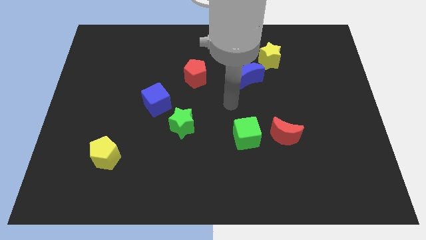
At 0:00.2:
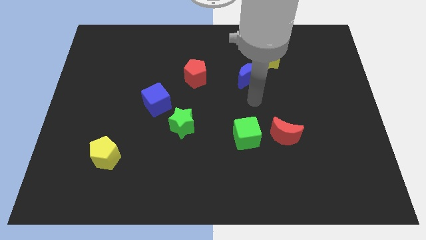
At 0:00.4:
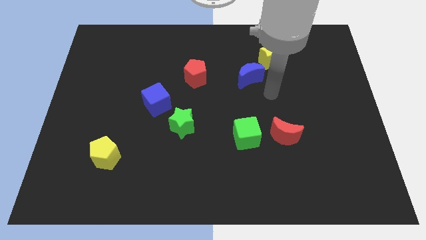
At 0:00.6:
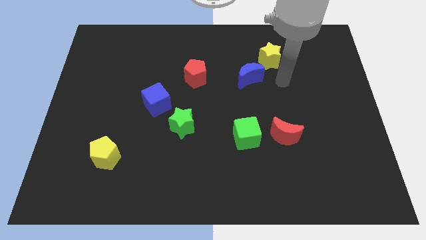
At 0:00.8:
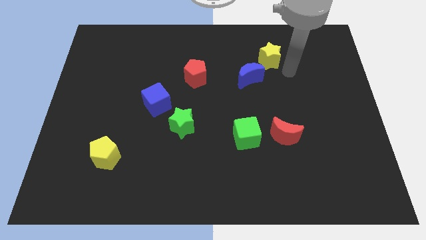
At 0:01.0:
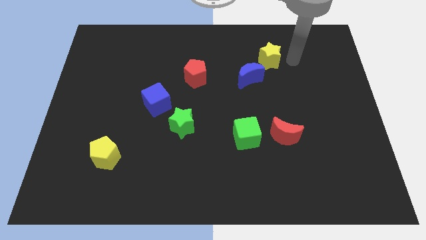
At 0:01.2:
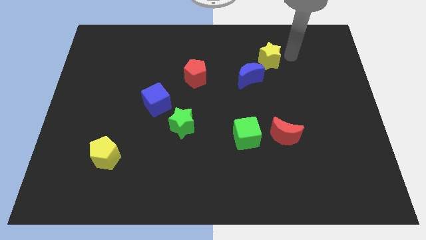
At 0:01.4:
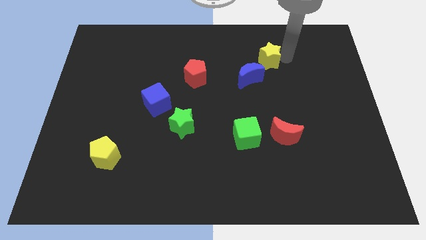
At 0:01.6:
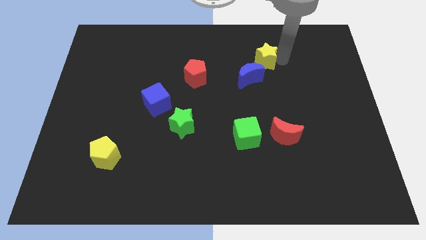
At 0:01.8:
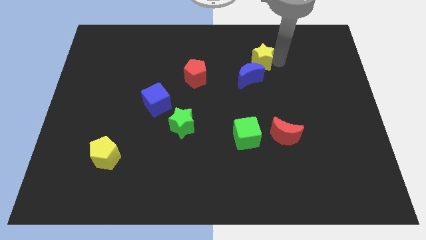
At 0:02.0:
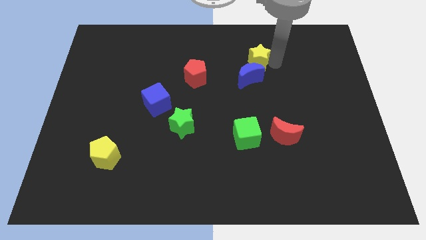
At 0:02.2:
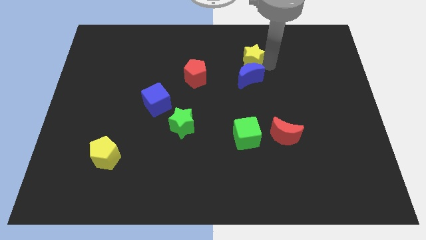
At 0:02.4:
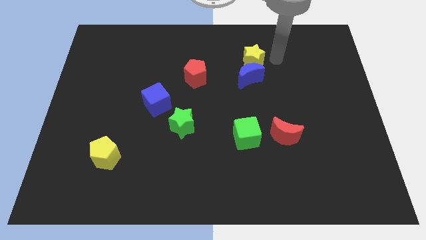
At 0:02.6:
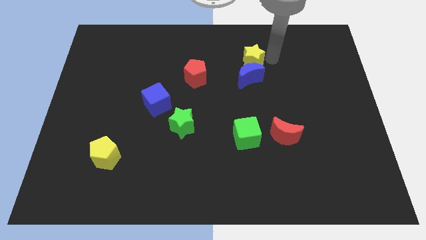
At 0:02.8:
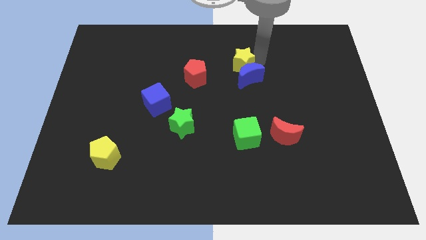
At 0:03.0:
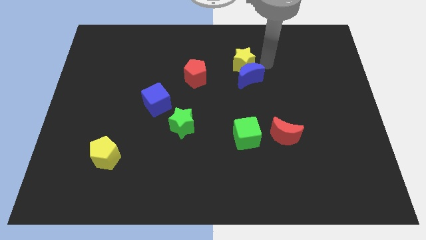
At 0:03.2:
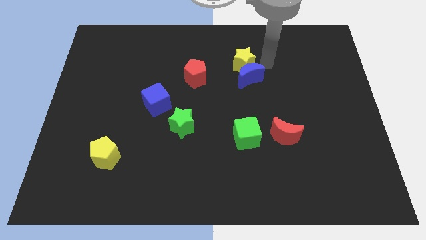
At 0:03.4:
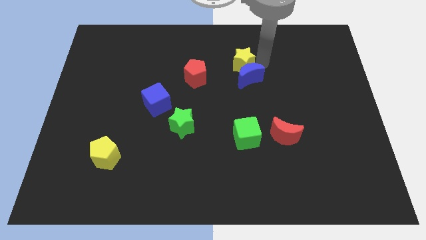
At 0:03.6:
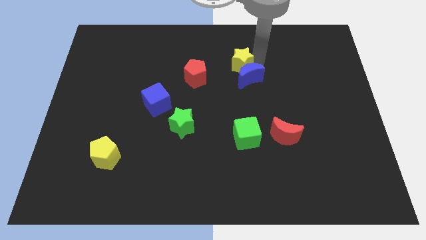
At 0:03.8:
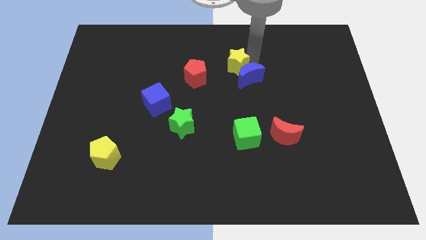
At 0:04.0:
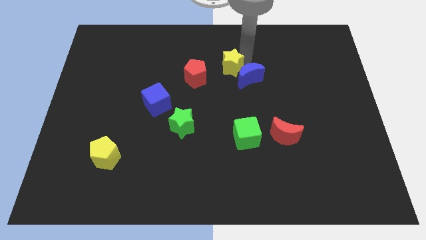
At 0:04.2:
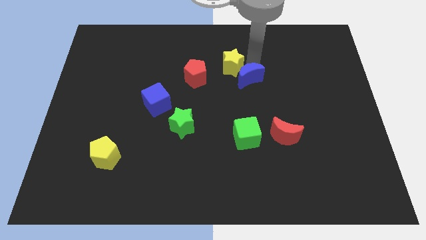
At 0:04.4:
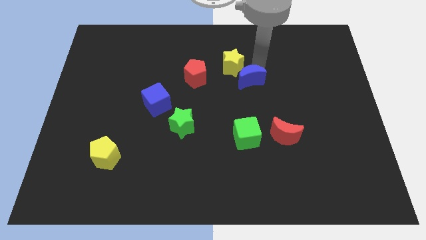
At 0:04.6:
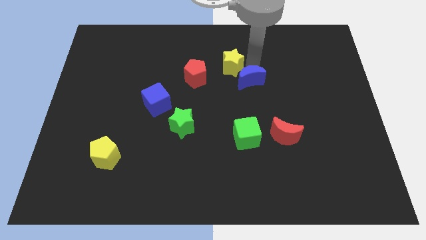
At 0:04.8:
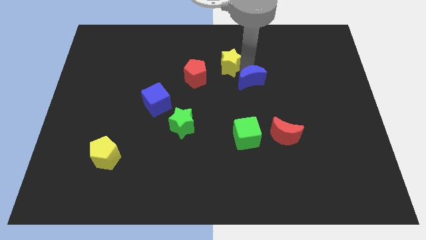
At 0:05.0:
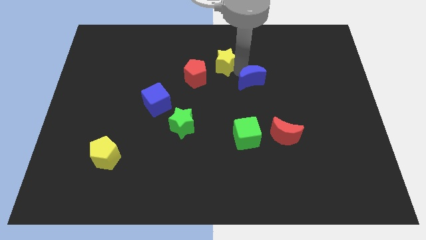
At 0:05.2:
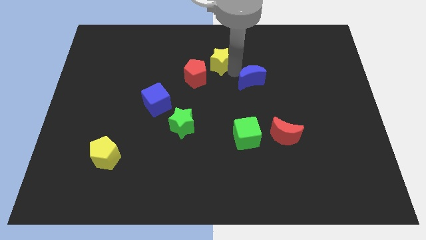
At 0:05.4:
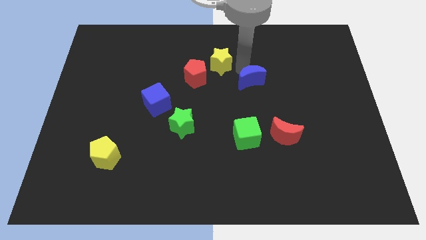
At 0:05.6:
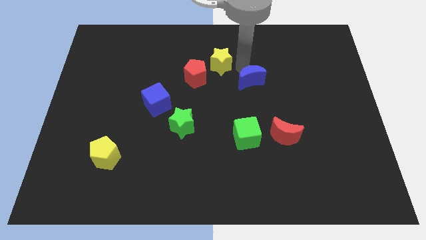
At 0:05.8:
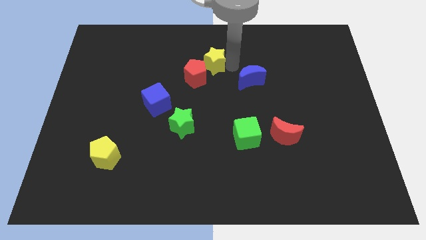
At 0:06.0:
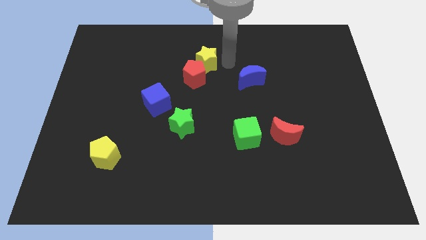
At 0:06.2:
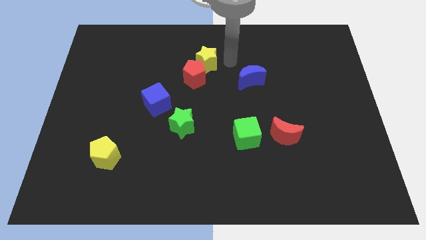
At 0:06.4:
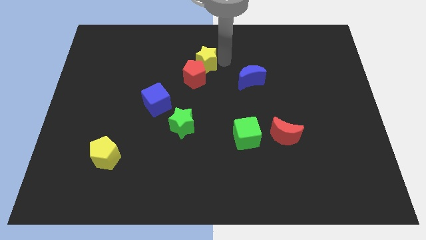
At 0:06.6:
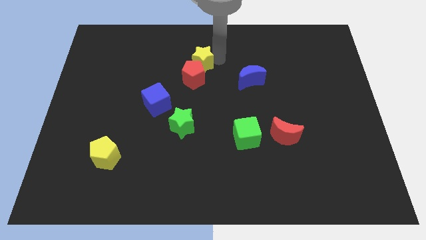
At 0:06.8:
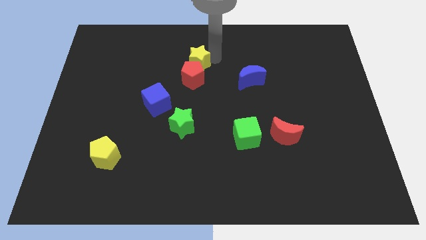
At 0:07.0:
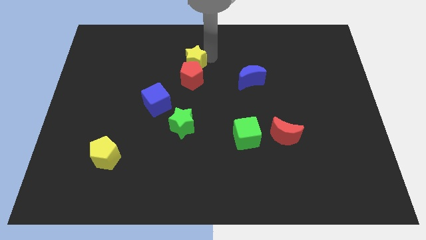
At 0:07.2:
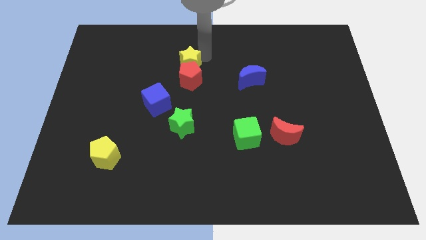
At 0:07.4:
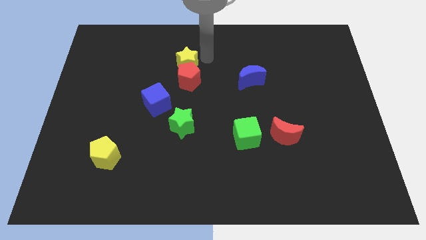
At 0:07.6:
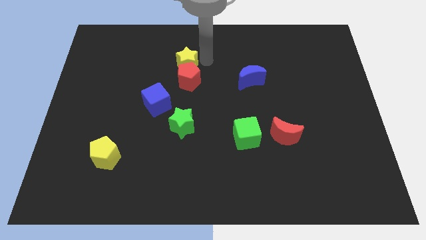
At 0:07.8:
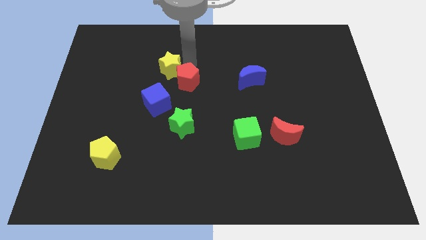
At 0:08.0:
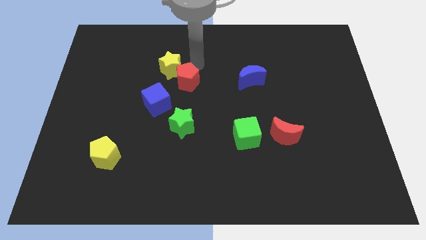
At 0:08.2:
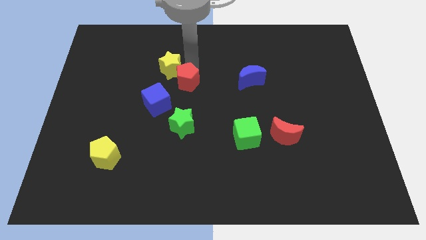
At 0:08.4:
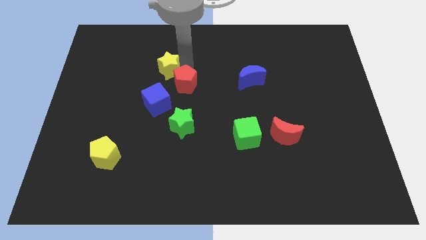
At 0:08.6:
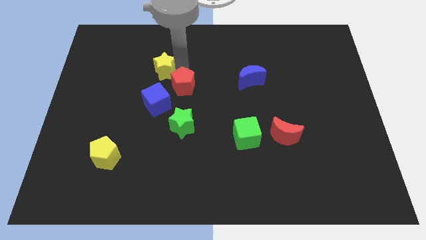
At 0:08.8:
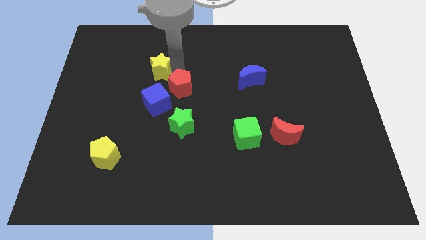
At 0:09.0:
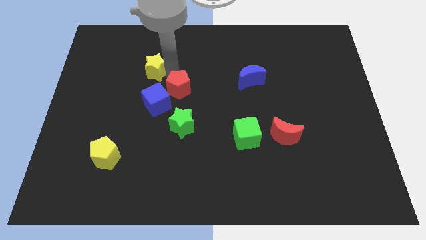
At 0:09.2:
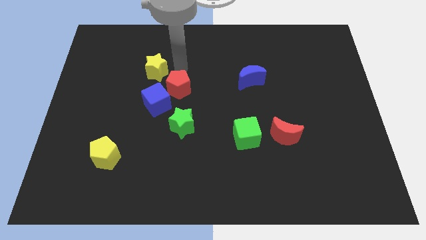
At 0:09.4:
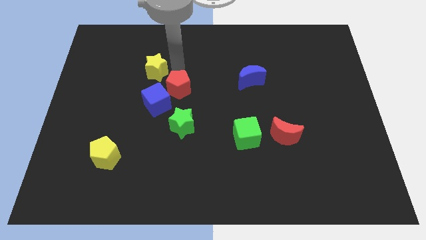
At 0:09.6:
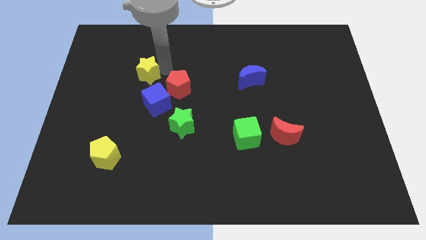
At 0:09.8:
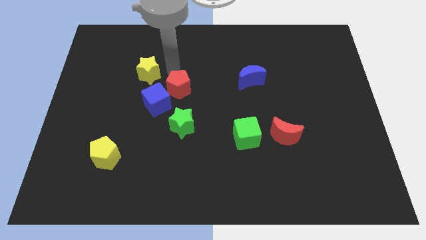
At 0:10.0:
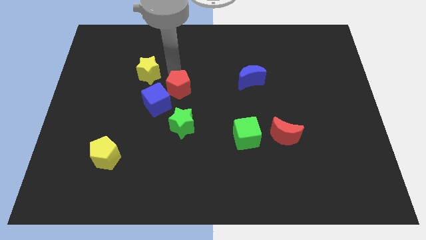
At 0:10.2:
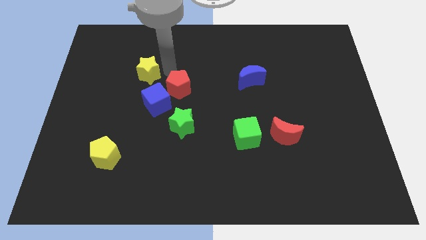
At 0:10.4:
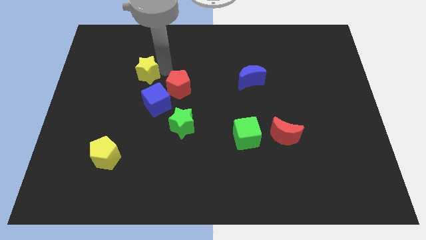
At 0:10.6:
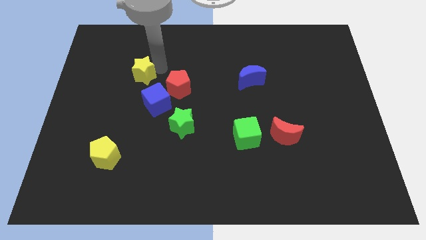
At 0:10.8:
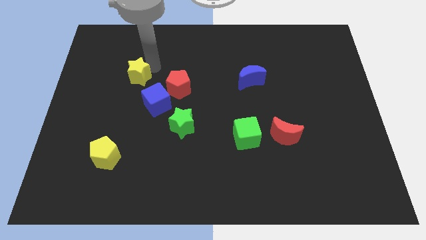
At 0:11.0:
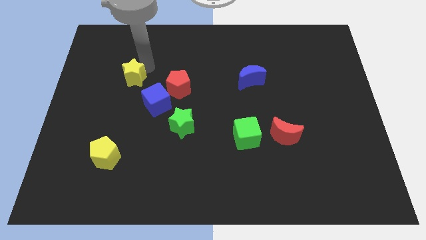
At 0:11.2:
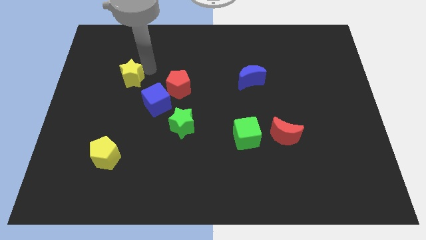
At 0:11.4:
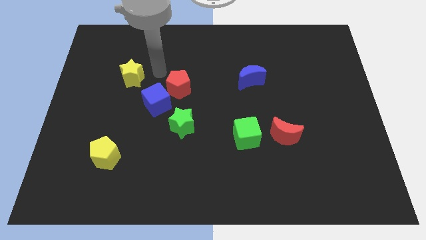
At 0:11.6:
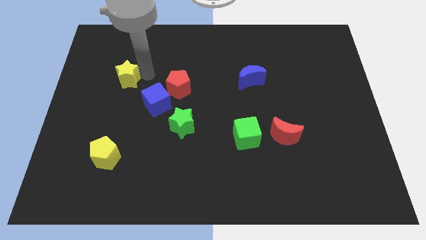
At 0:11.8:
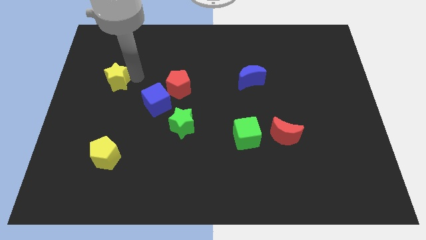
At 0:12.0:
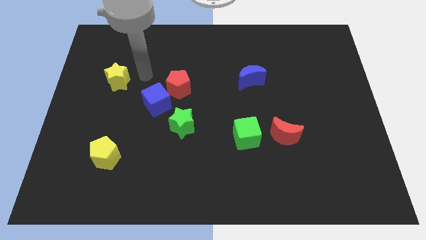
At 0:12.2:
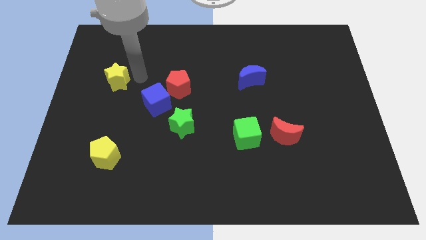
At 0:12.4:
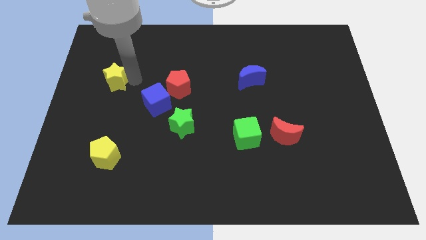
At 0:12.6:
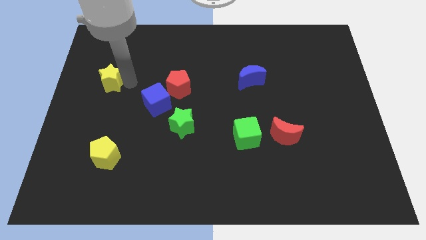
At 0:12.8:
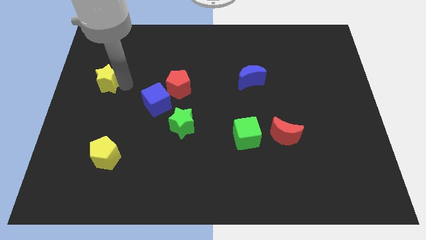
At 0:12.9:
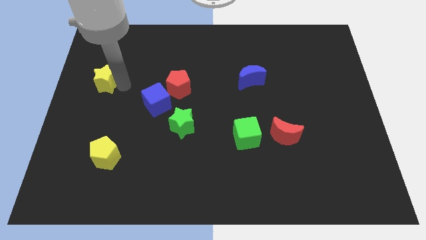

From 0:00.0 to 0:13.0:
push the yellow star to the left side of the board

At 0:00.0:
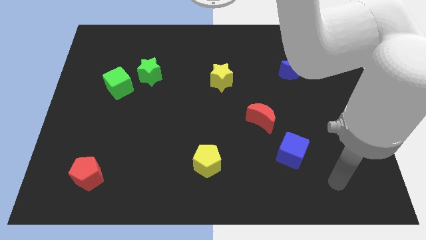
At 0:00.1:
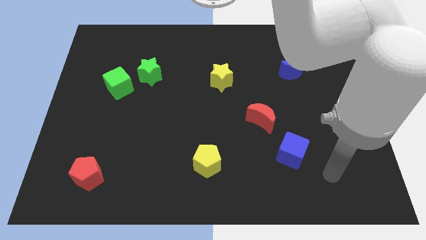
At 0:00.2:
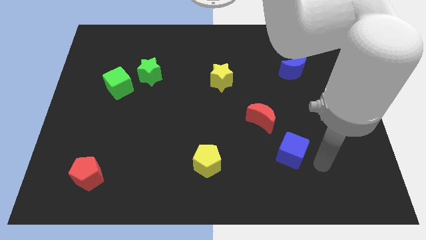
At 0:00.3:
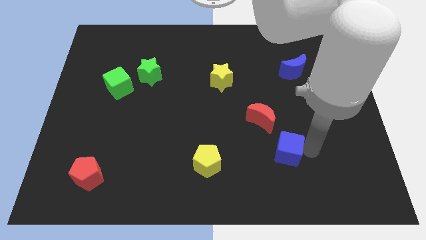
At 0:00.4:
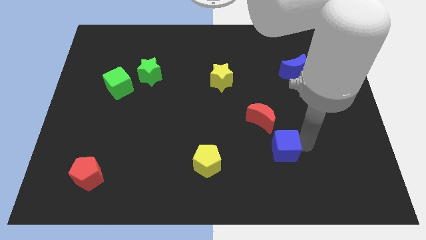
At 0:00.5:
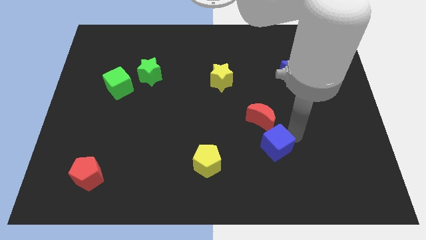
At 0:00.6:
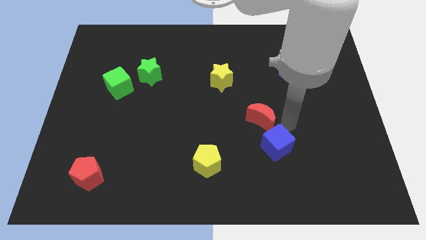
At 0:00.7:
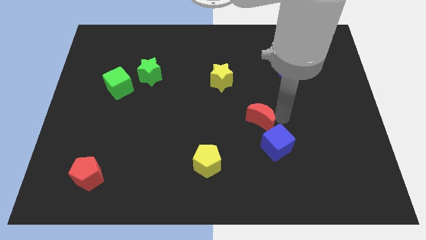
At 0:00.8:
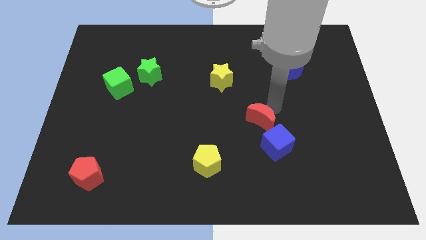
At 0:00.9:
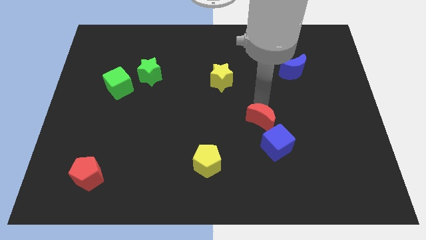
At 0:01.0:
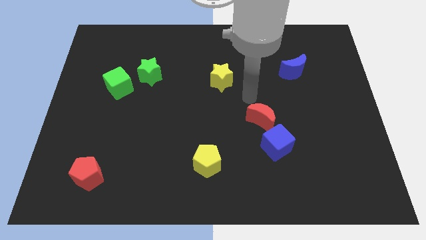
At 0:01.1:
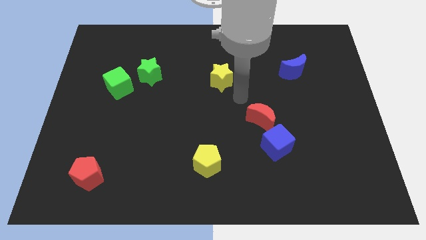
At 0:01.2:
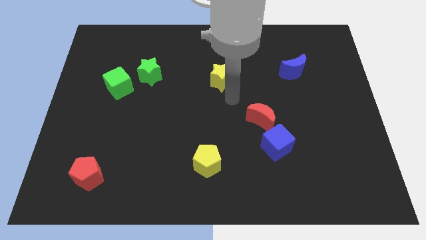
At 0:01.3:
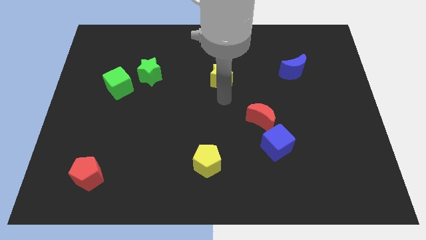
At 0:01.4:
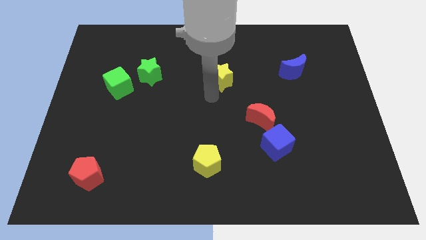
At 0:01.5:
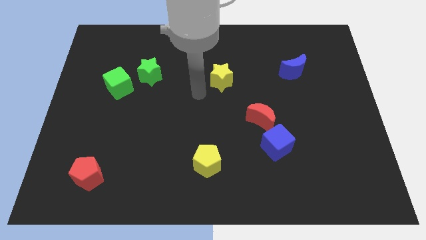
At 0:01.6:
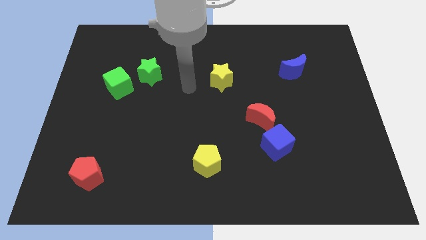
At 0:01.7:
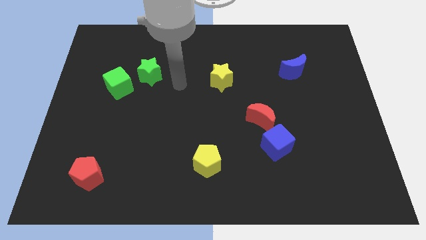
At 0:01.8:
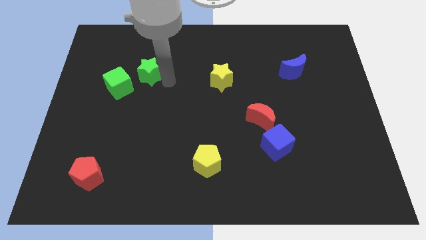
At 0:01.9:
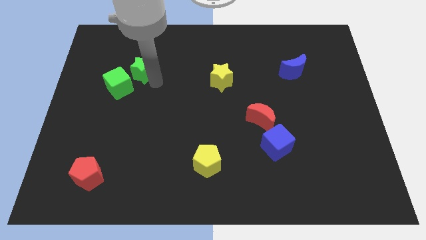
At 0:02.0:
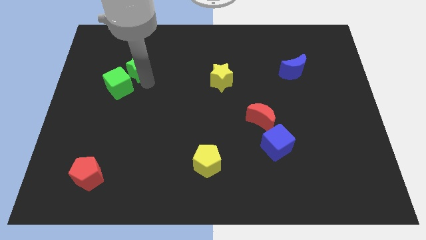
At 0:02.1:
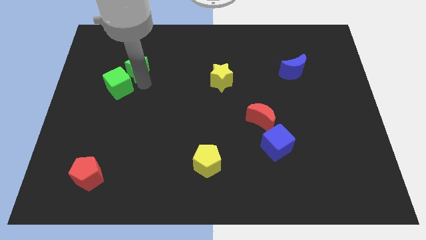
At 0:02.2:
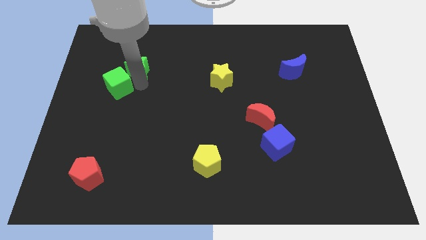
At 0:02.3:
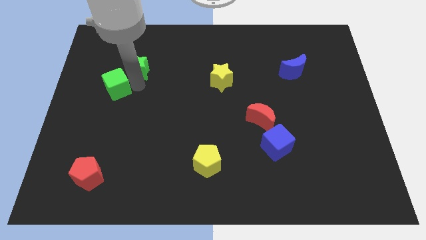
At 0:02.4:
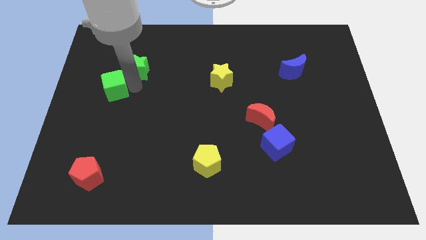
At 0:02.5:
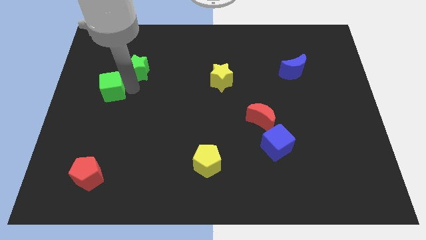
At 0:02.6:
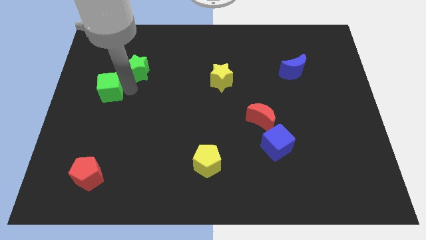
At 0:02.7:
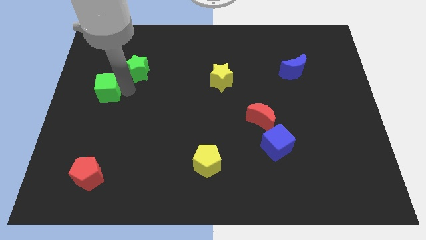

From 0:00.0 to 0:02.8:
move the green cube to the center left
